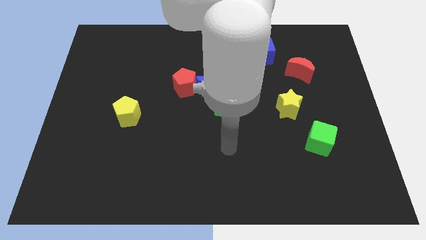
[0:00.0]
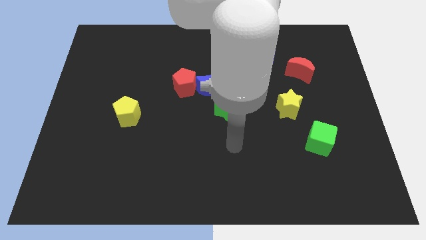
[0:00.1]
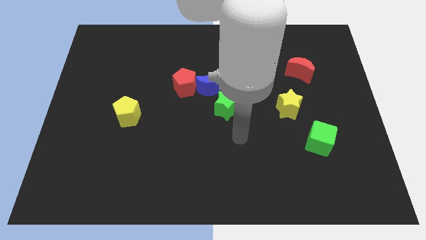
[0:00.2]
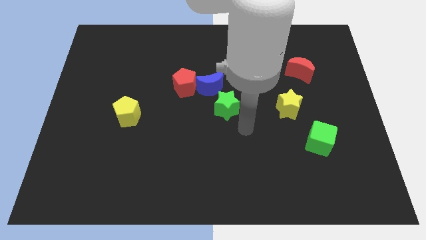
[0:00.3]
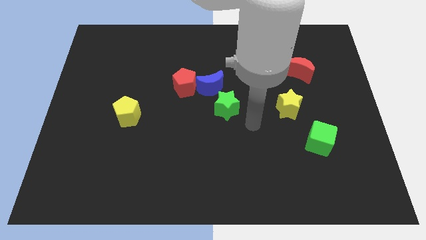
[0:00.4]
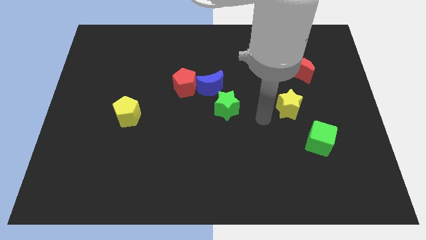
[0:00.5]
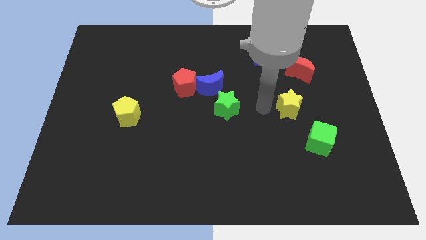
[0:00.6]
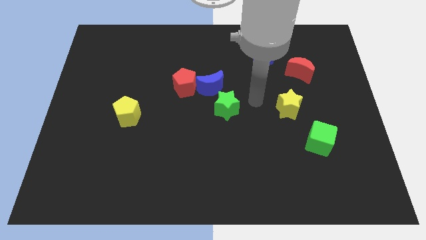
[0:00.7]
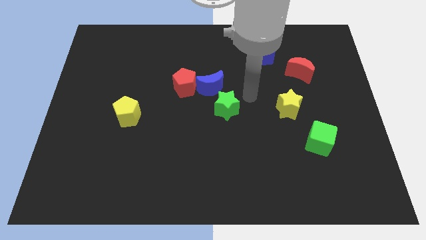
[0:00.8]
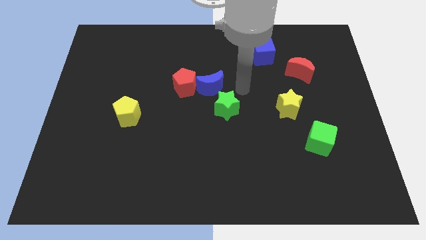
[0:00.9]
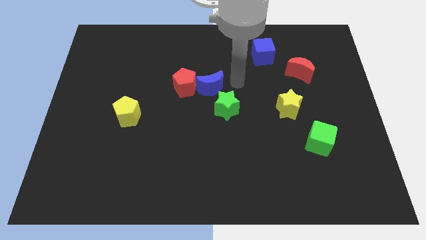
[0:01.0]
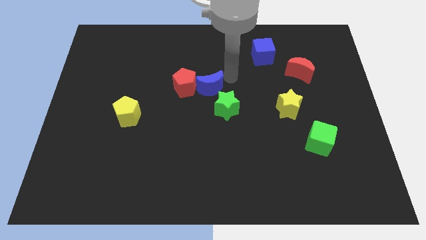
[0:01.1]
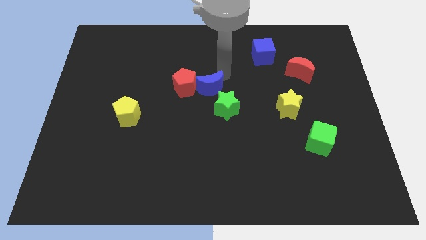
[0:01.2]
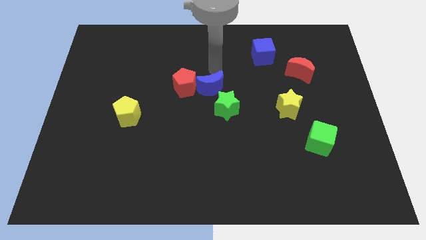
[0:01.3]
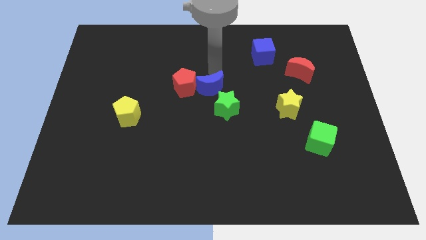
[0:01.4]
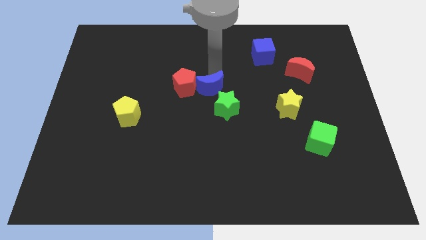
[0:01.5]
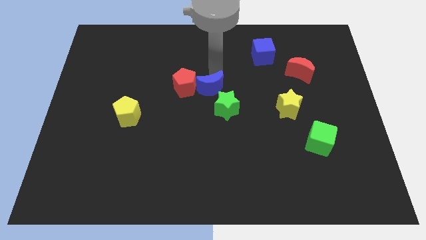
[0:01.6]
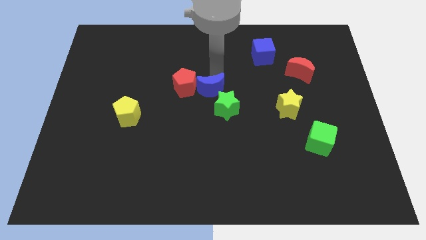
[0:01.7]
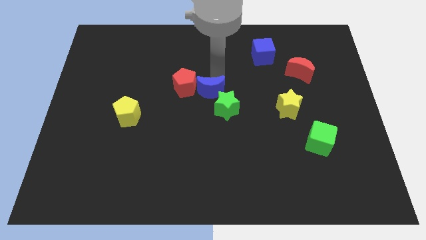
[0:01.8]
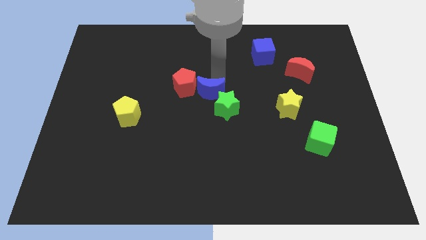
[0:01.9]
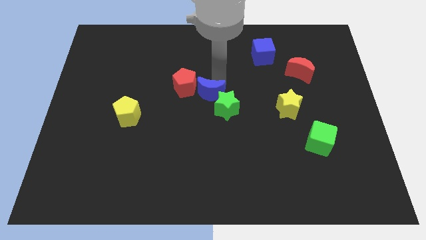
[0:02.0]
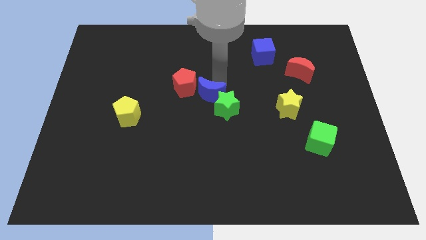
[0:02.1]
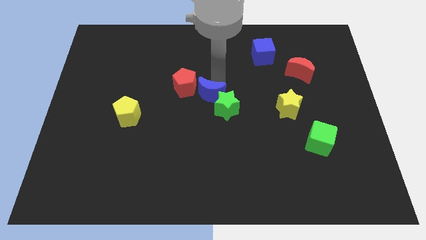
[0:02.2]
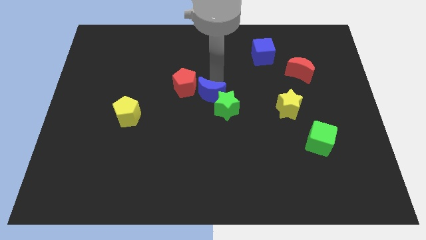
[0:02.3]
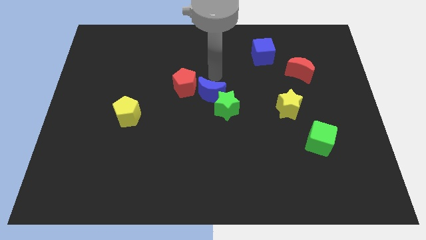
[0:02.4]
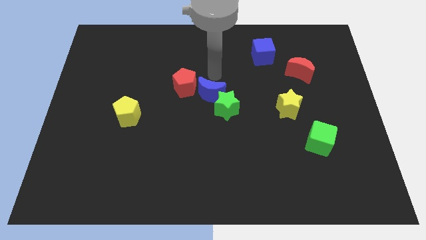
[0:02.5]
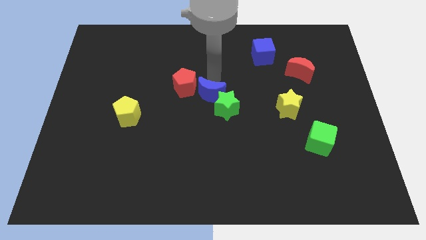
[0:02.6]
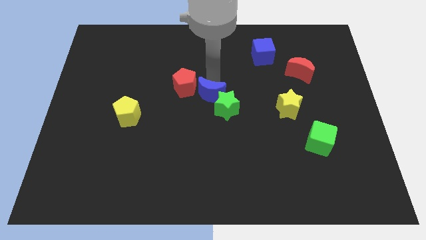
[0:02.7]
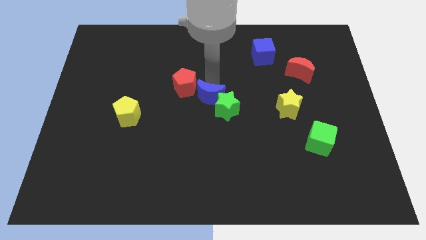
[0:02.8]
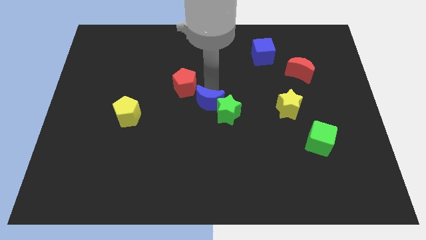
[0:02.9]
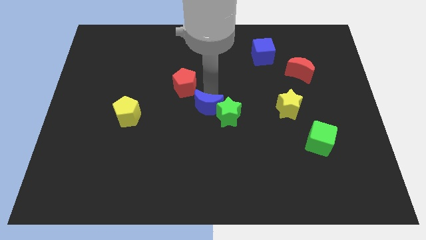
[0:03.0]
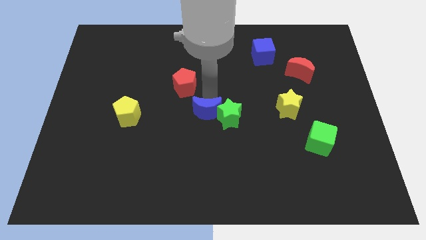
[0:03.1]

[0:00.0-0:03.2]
push the blue moon down a little

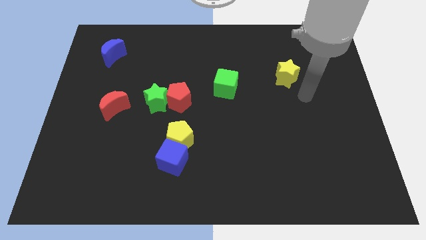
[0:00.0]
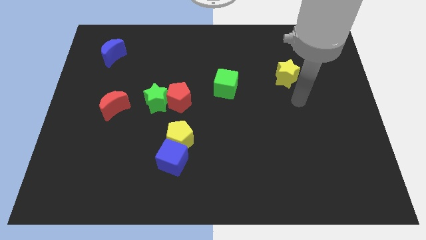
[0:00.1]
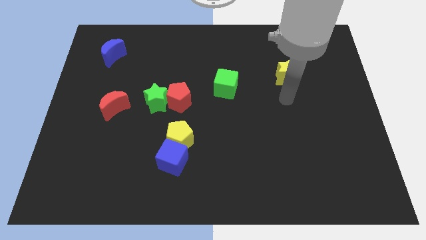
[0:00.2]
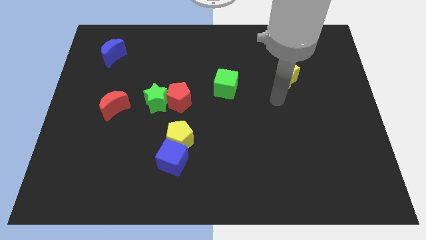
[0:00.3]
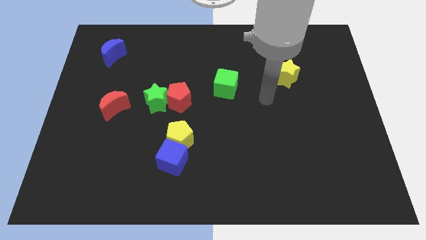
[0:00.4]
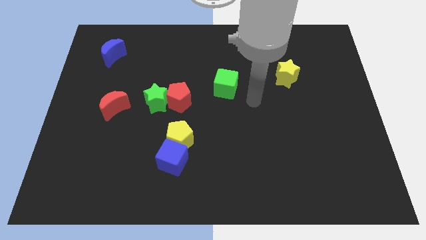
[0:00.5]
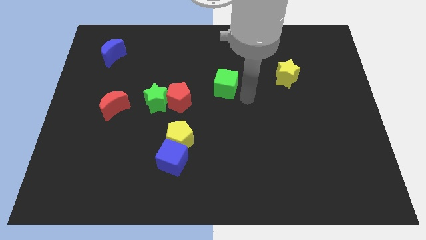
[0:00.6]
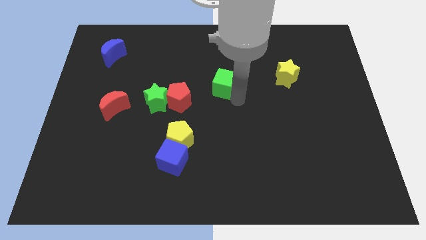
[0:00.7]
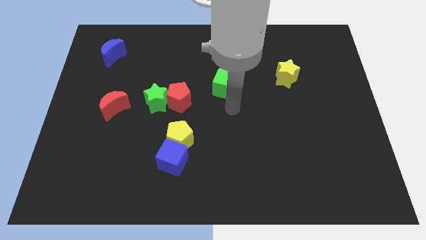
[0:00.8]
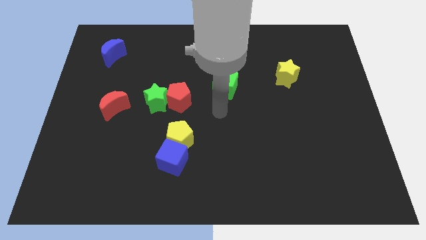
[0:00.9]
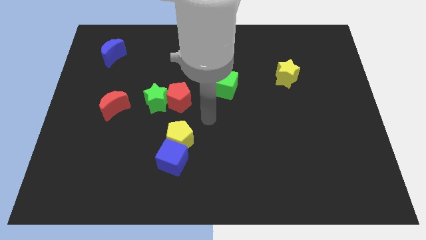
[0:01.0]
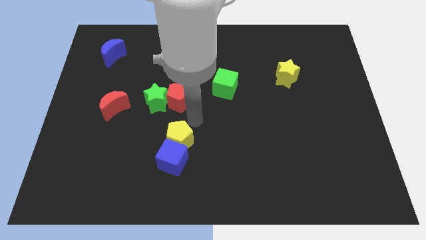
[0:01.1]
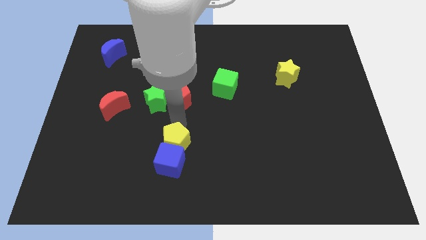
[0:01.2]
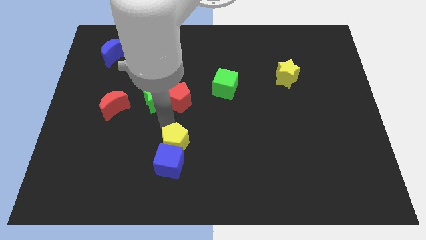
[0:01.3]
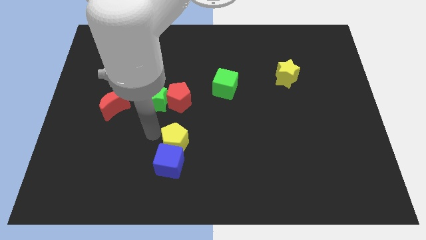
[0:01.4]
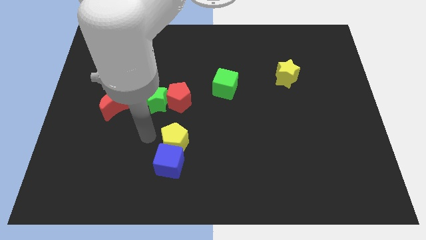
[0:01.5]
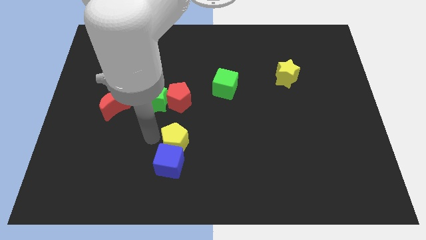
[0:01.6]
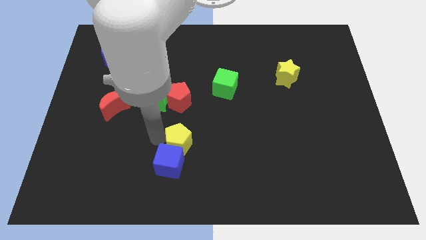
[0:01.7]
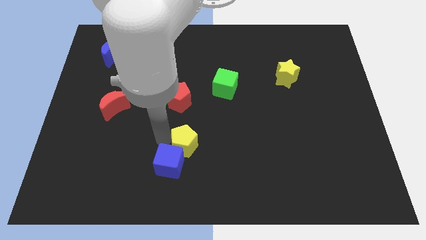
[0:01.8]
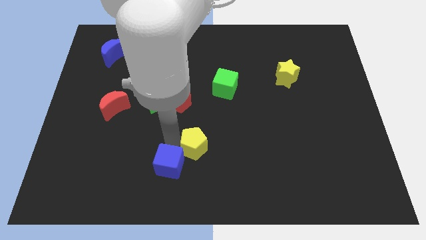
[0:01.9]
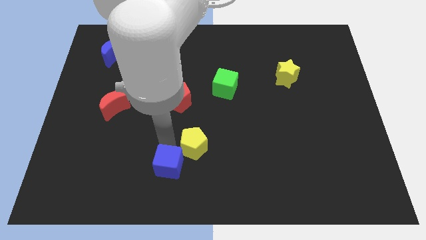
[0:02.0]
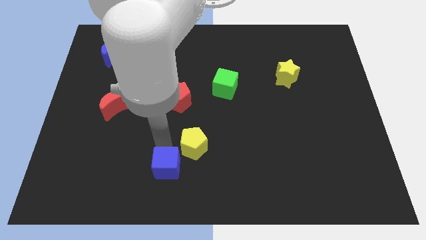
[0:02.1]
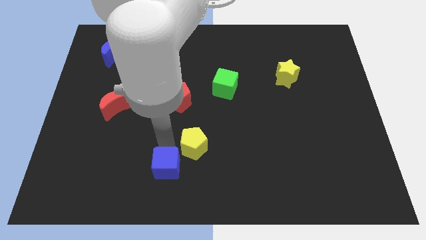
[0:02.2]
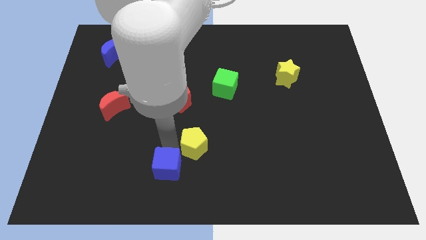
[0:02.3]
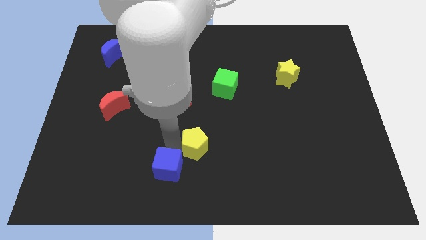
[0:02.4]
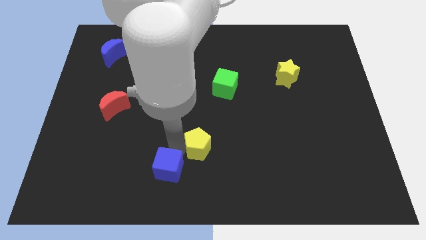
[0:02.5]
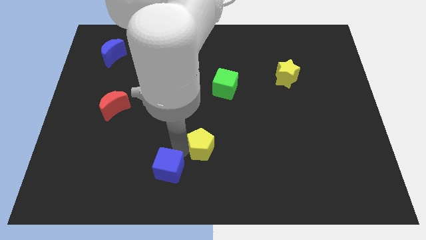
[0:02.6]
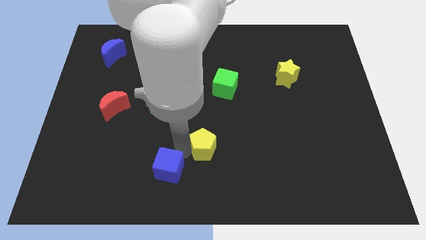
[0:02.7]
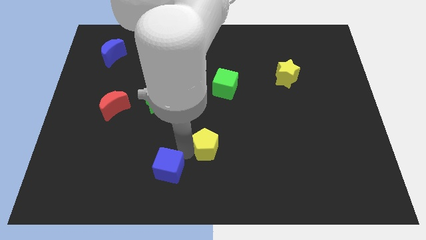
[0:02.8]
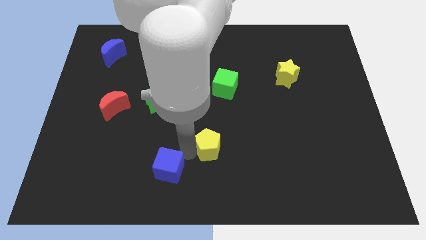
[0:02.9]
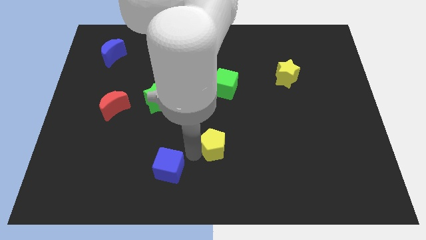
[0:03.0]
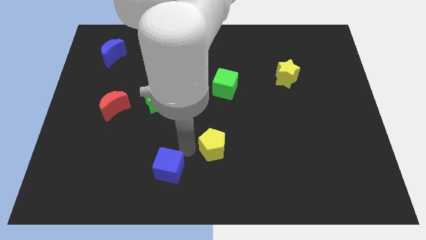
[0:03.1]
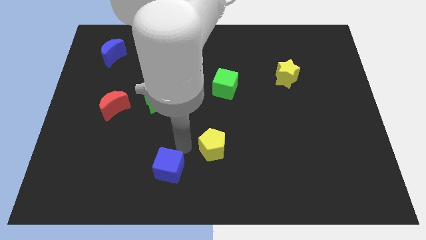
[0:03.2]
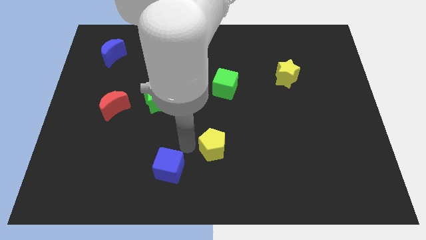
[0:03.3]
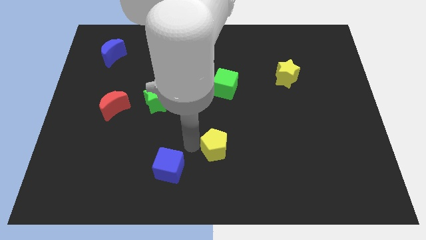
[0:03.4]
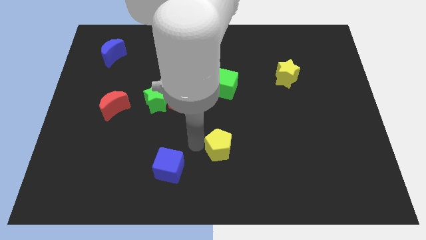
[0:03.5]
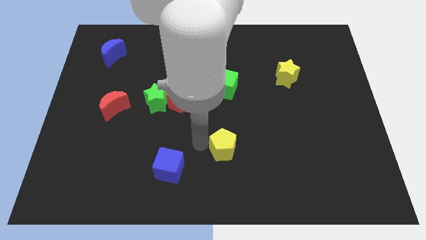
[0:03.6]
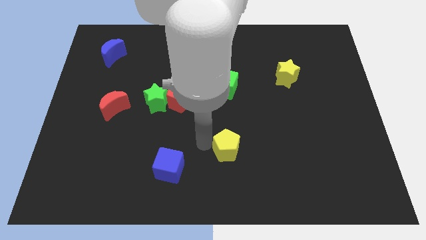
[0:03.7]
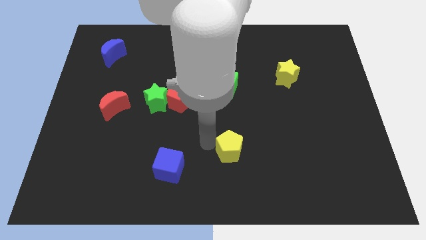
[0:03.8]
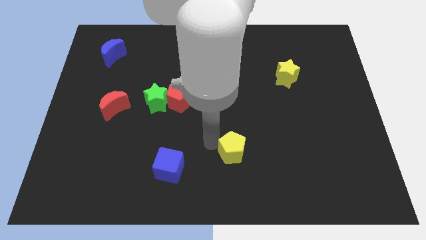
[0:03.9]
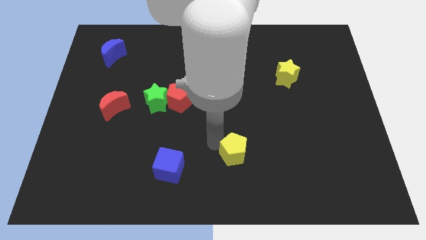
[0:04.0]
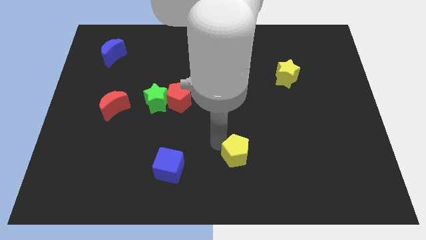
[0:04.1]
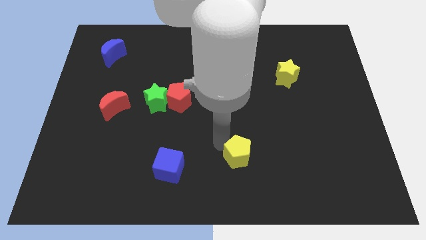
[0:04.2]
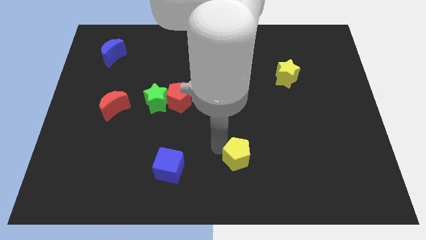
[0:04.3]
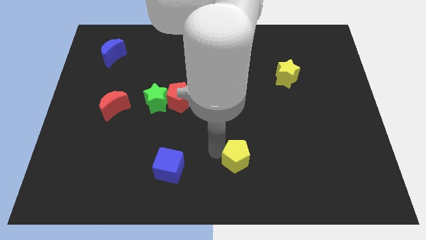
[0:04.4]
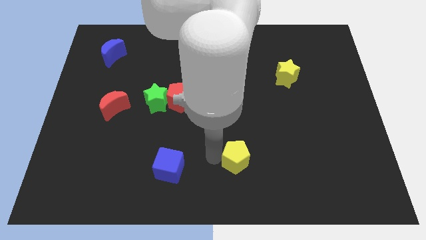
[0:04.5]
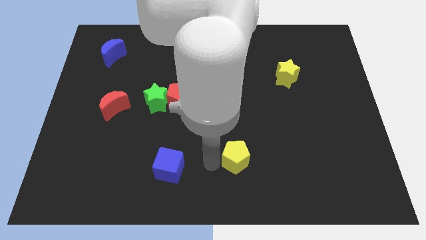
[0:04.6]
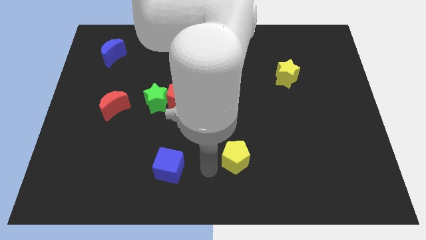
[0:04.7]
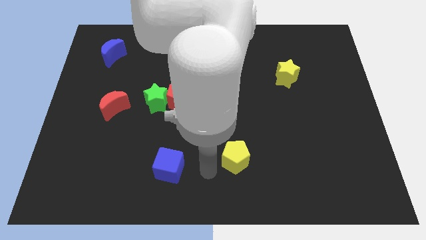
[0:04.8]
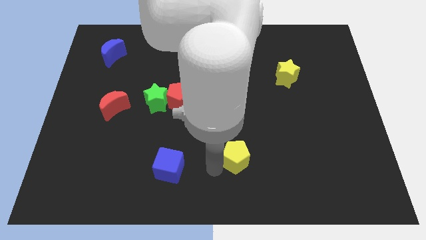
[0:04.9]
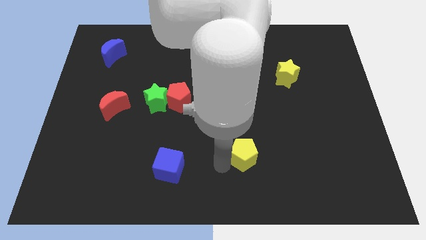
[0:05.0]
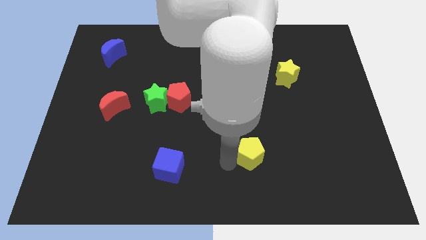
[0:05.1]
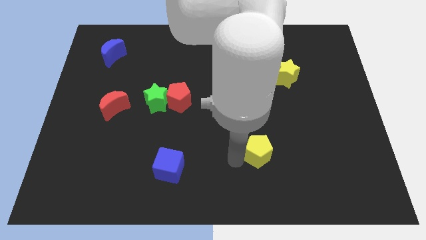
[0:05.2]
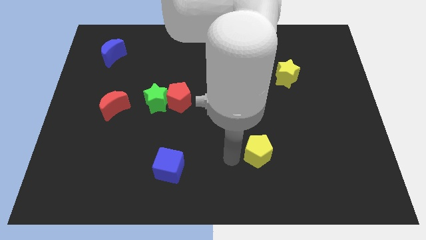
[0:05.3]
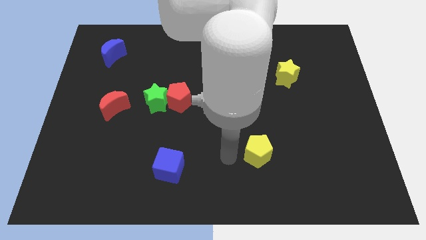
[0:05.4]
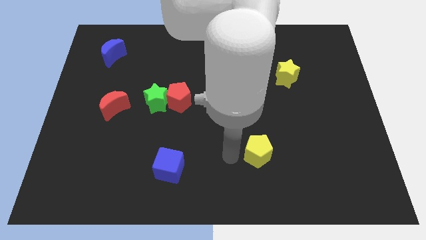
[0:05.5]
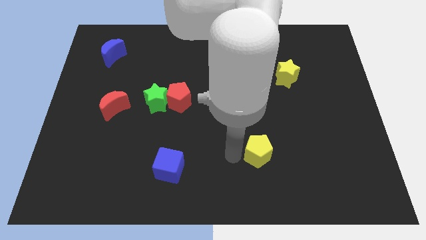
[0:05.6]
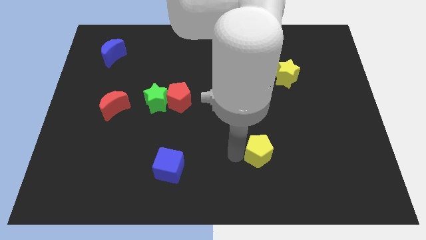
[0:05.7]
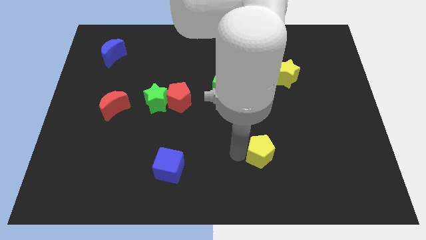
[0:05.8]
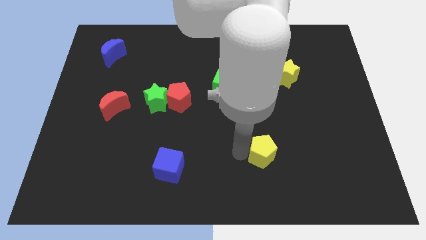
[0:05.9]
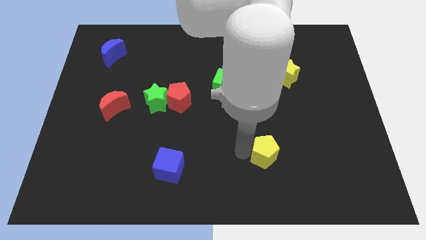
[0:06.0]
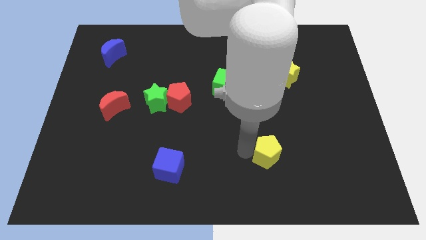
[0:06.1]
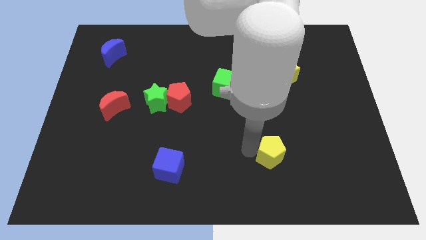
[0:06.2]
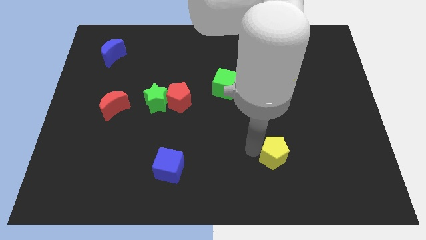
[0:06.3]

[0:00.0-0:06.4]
push the yellow pentagon right
